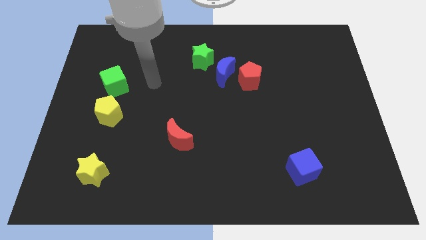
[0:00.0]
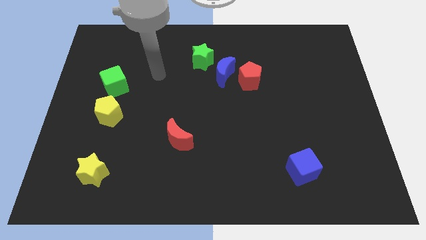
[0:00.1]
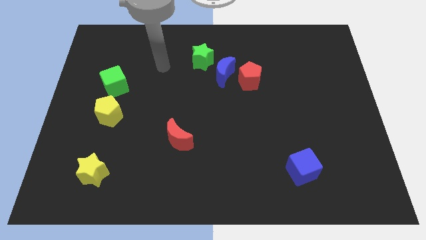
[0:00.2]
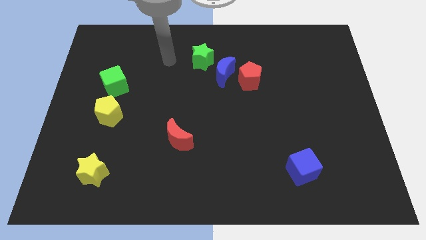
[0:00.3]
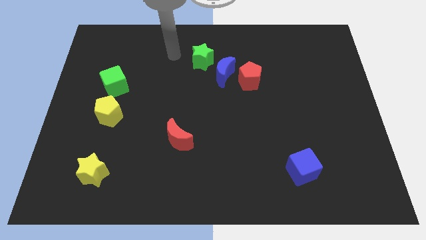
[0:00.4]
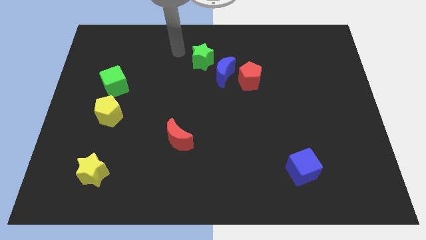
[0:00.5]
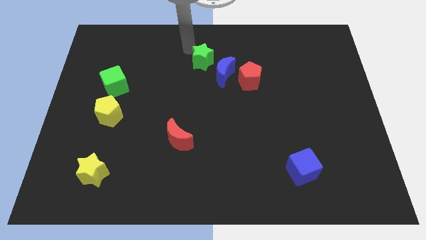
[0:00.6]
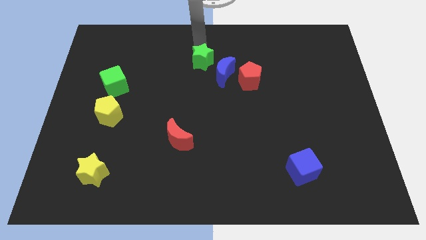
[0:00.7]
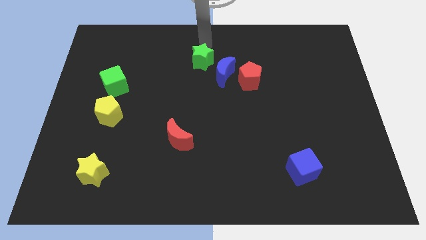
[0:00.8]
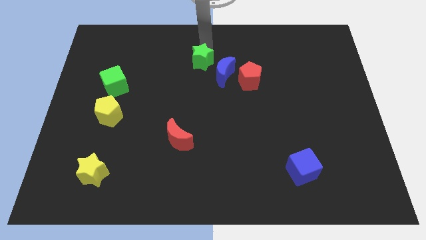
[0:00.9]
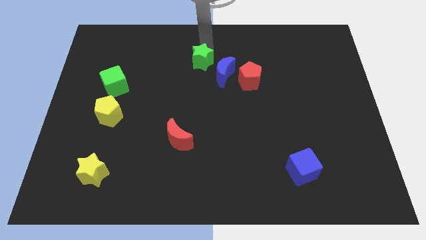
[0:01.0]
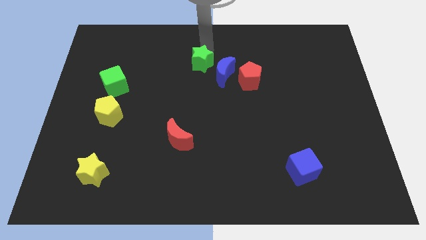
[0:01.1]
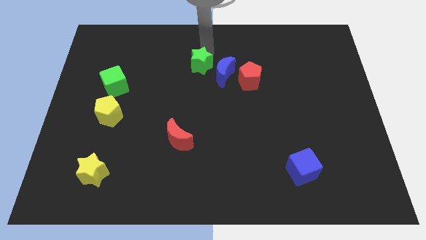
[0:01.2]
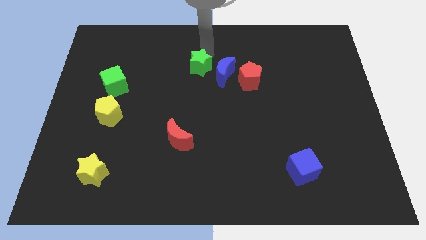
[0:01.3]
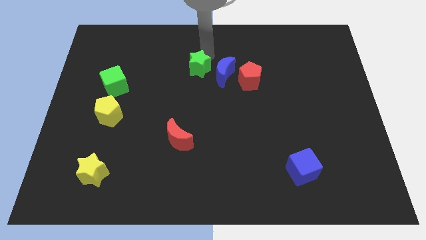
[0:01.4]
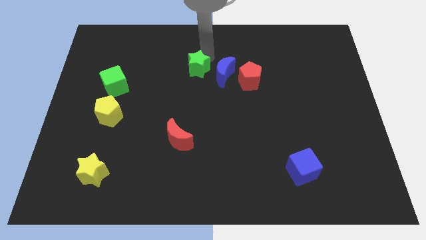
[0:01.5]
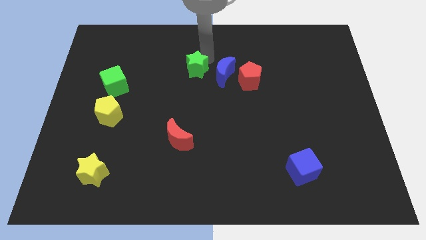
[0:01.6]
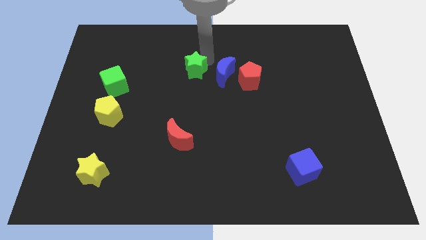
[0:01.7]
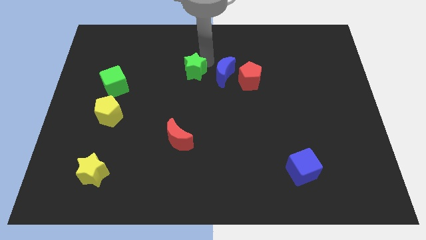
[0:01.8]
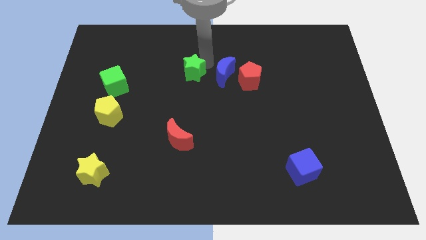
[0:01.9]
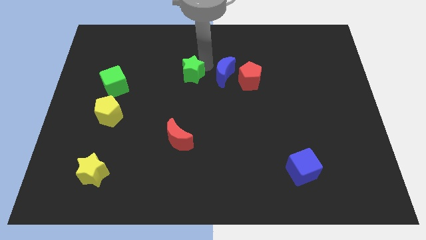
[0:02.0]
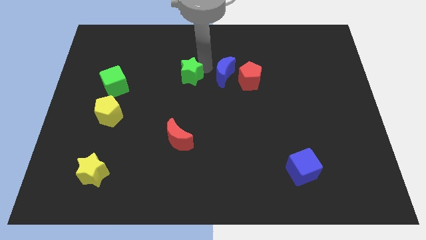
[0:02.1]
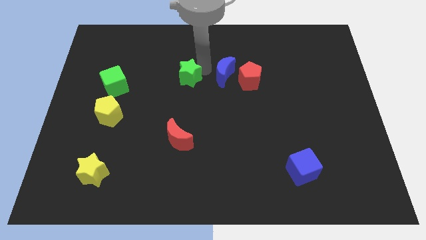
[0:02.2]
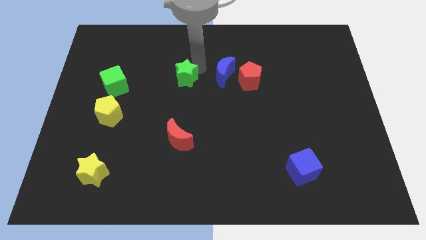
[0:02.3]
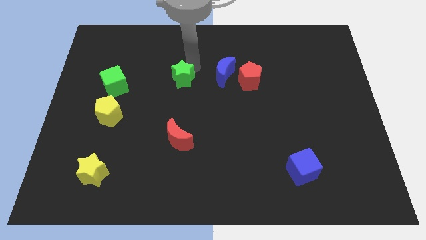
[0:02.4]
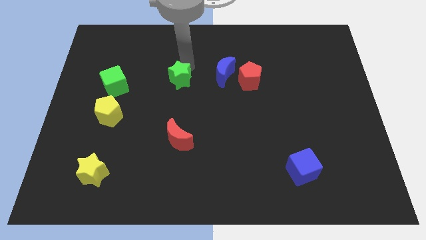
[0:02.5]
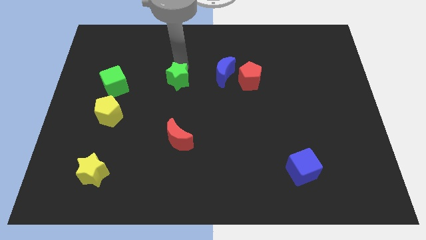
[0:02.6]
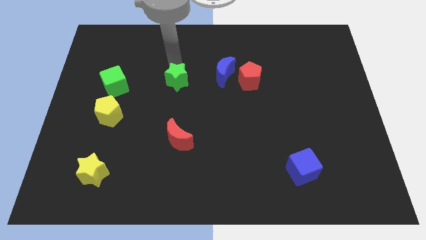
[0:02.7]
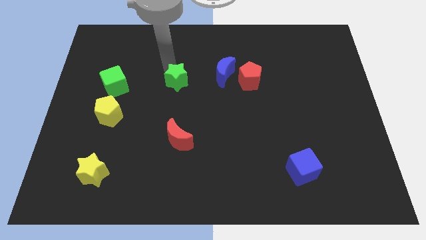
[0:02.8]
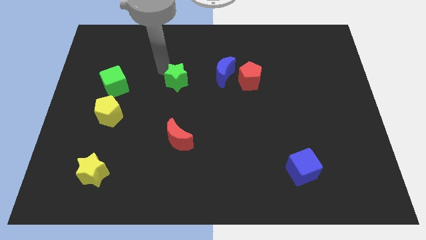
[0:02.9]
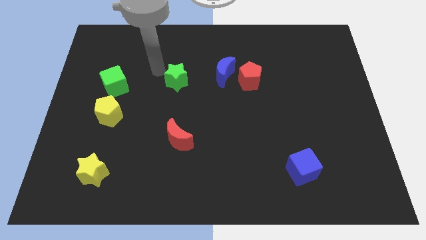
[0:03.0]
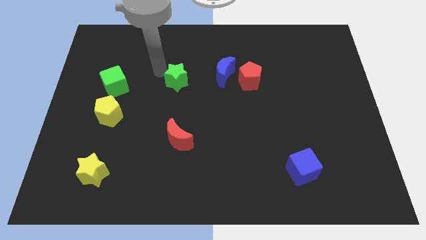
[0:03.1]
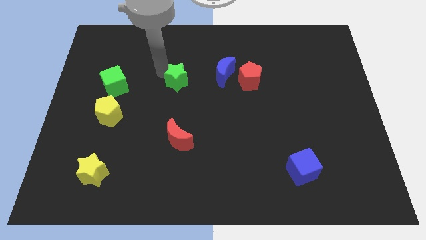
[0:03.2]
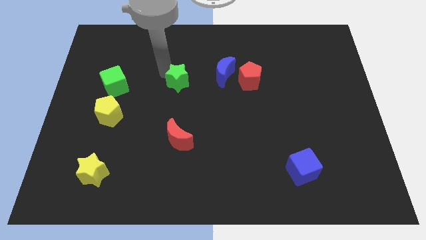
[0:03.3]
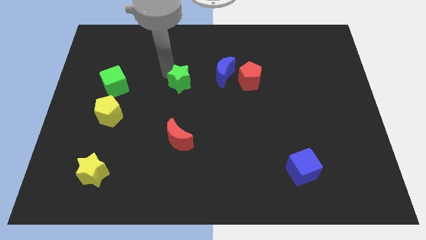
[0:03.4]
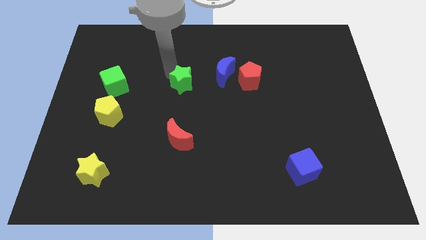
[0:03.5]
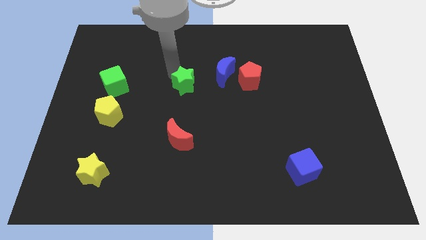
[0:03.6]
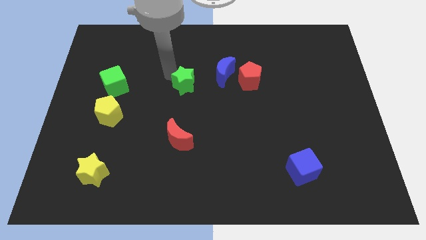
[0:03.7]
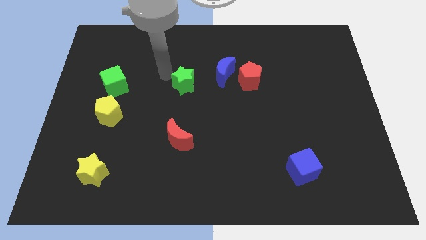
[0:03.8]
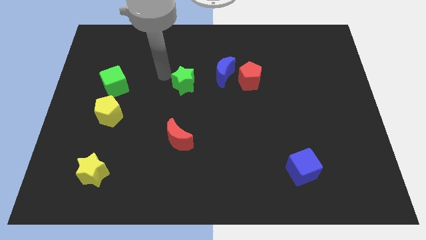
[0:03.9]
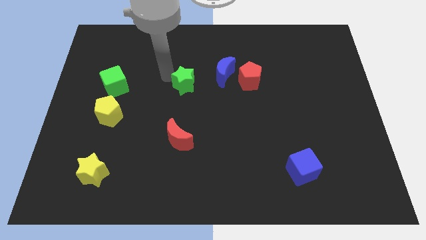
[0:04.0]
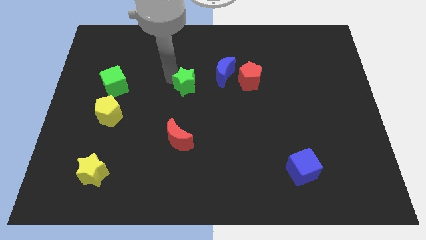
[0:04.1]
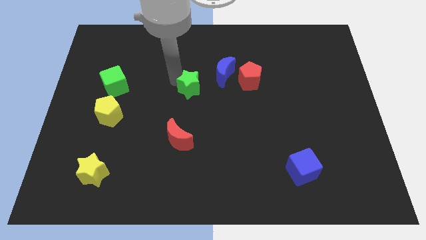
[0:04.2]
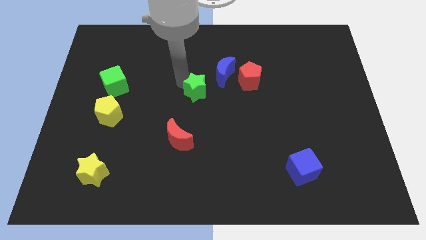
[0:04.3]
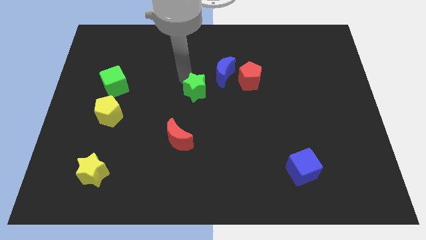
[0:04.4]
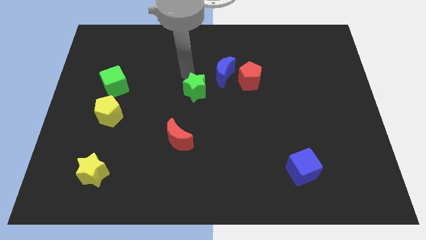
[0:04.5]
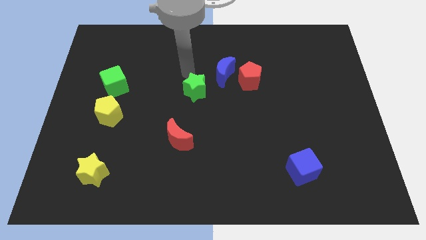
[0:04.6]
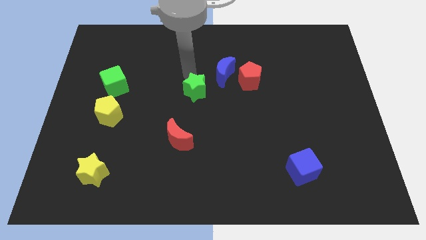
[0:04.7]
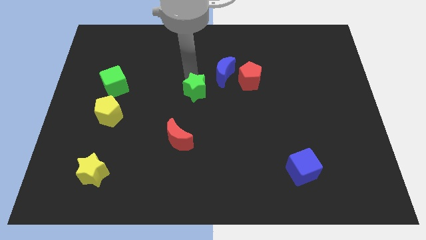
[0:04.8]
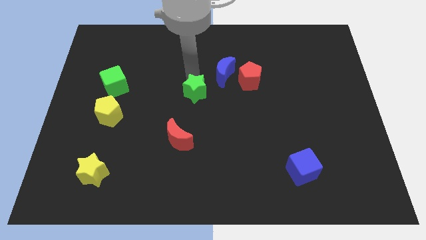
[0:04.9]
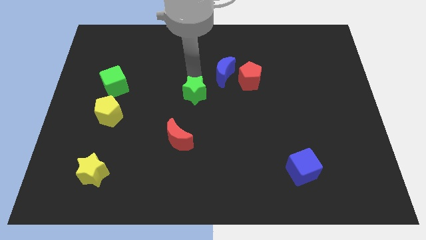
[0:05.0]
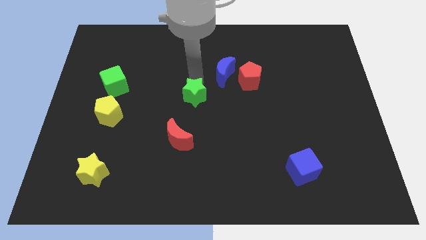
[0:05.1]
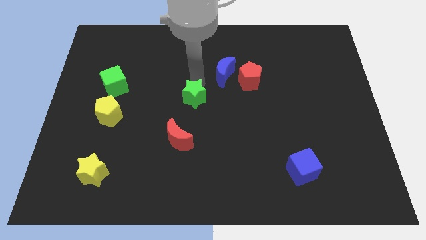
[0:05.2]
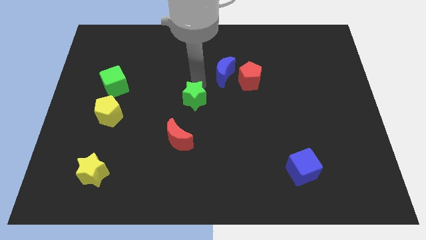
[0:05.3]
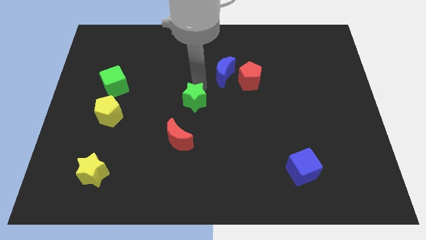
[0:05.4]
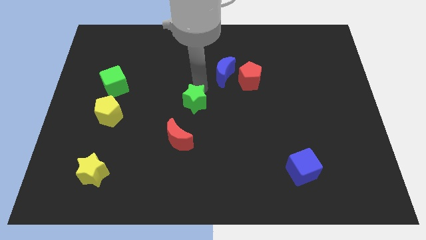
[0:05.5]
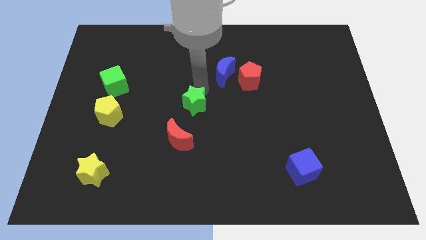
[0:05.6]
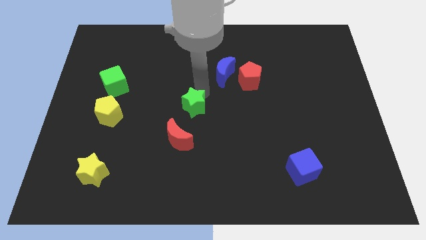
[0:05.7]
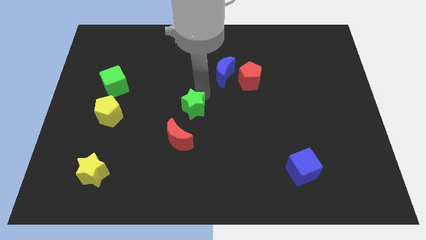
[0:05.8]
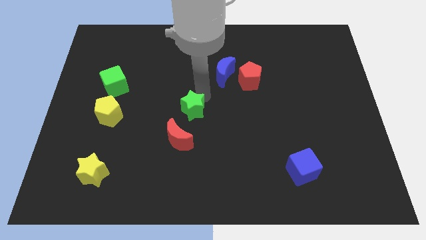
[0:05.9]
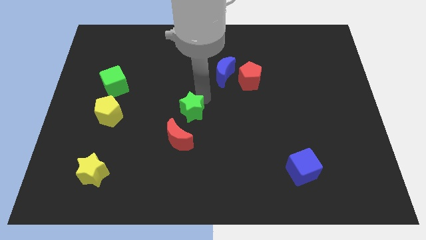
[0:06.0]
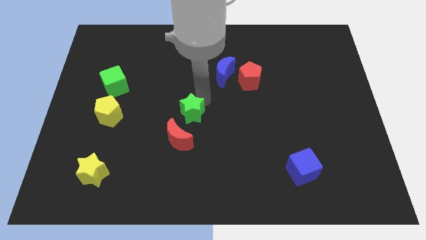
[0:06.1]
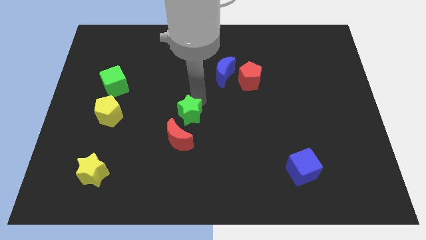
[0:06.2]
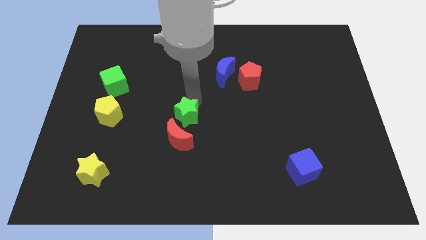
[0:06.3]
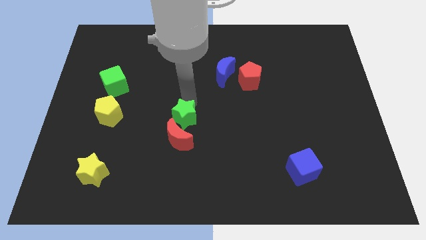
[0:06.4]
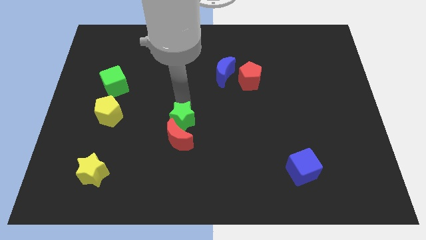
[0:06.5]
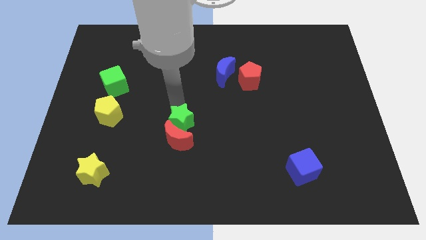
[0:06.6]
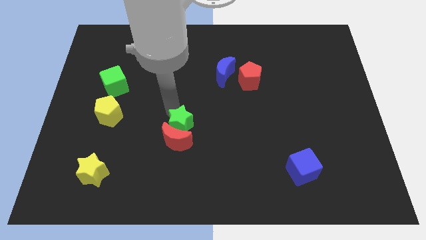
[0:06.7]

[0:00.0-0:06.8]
slide the green star down

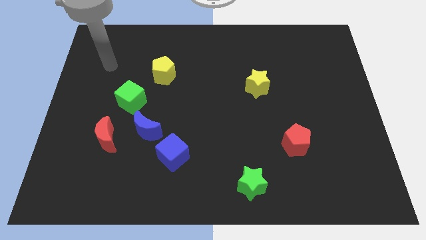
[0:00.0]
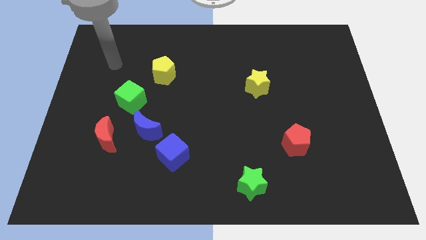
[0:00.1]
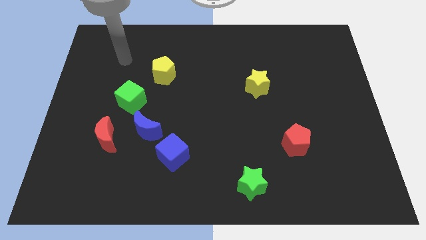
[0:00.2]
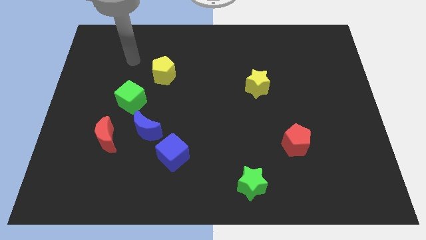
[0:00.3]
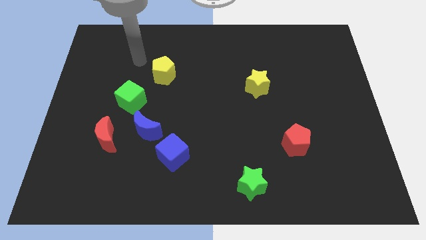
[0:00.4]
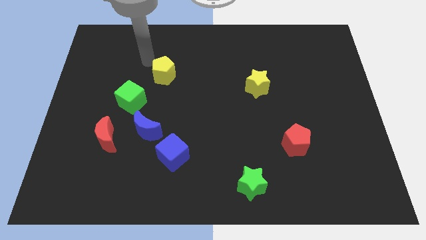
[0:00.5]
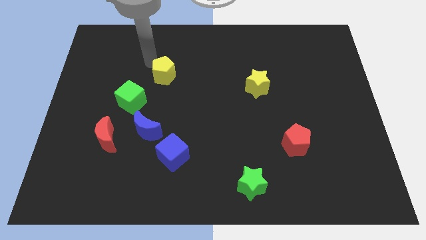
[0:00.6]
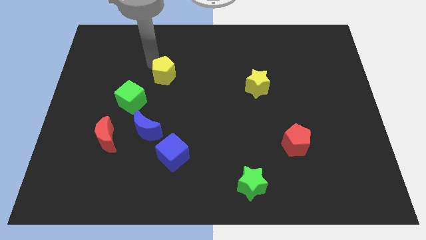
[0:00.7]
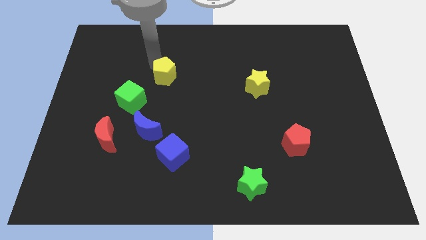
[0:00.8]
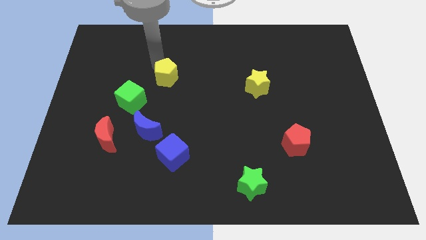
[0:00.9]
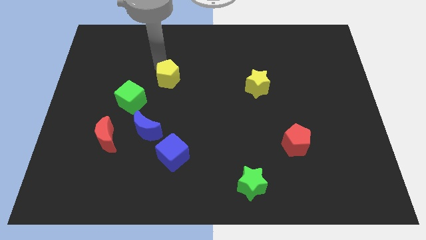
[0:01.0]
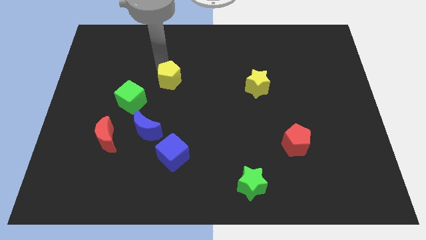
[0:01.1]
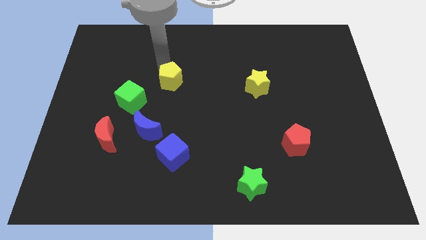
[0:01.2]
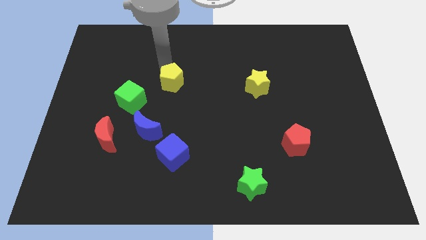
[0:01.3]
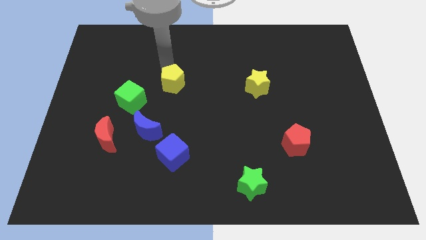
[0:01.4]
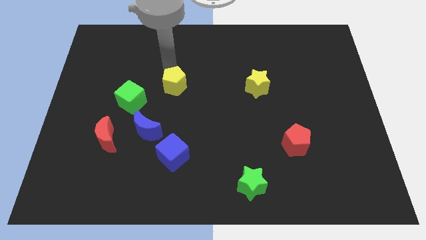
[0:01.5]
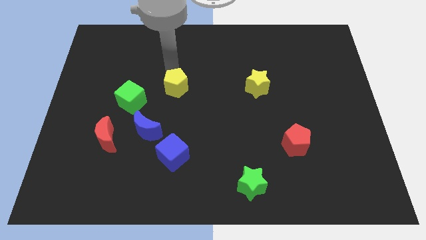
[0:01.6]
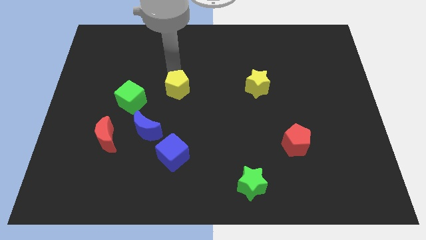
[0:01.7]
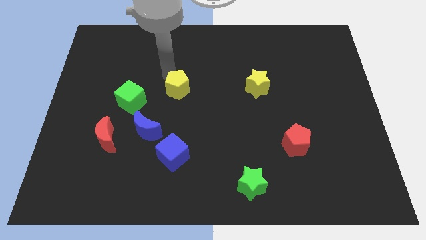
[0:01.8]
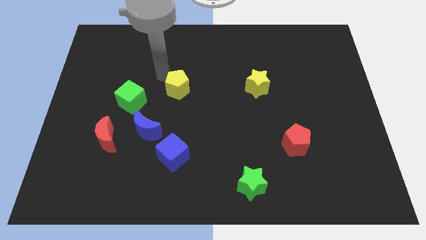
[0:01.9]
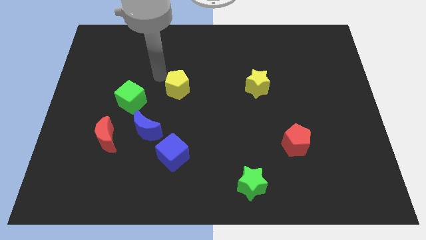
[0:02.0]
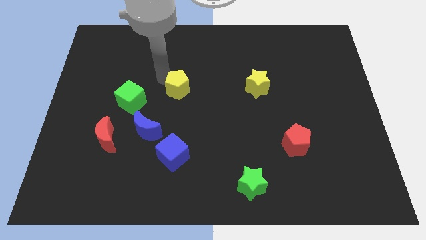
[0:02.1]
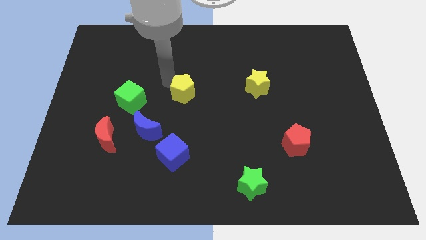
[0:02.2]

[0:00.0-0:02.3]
move the yellow pentagon downwards and then right a little bit
